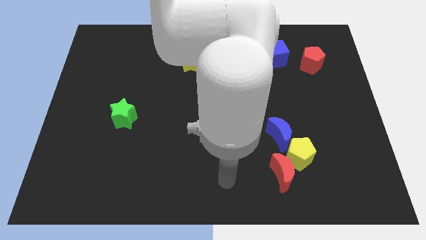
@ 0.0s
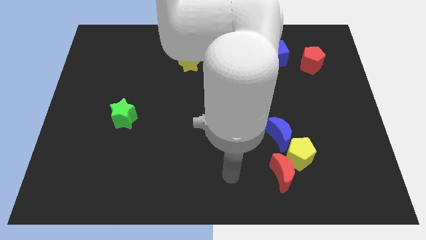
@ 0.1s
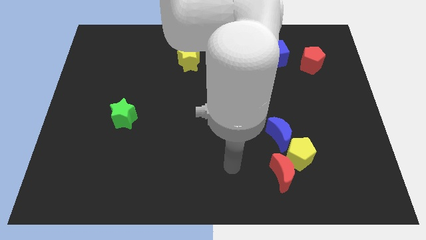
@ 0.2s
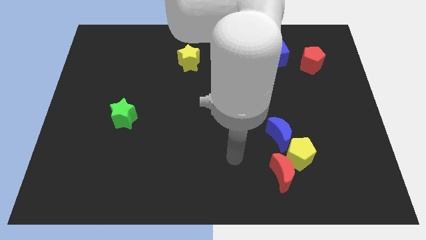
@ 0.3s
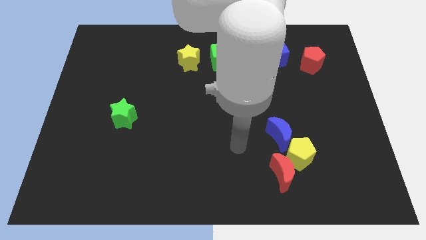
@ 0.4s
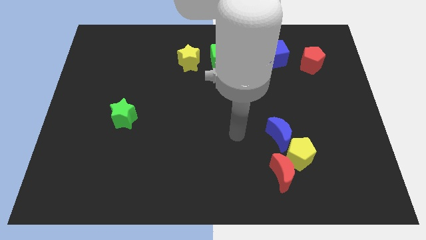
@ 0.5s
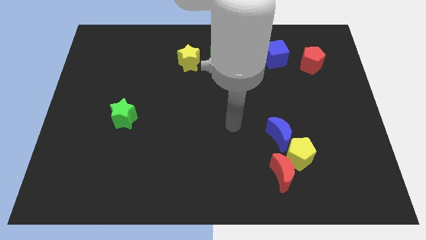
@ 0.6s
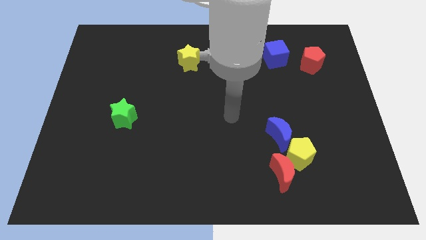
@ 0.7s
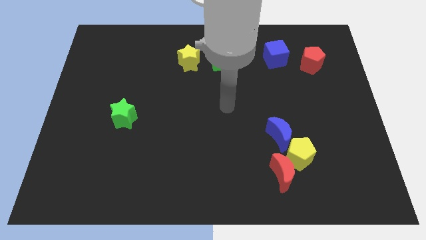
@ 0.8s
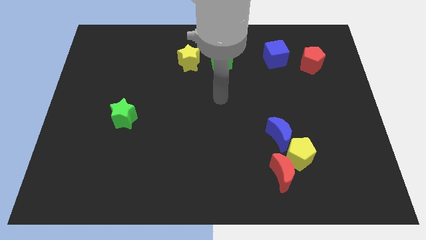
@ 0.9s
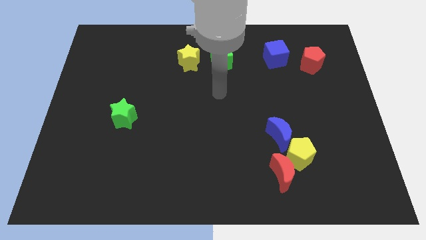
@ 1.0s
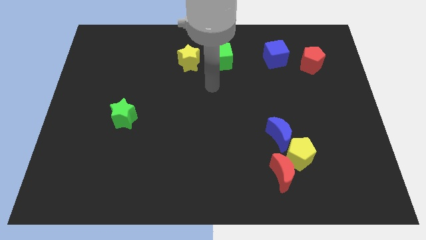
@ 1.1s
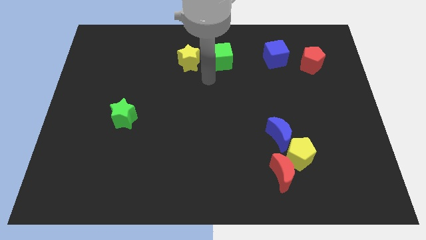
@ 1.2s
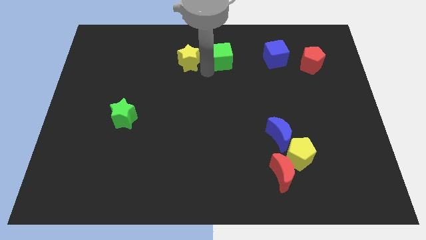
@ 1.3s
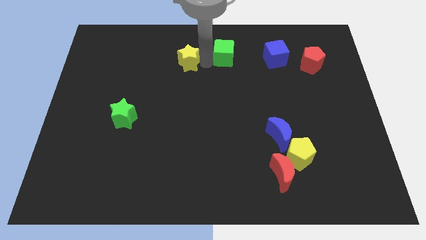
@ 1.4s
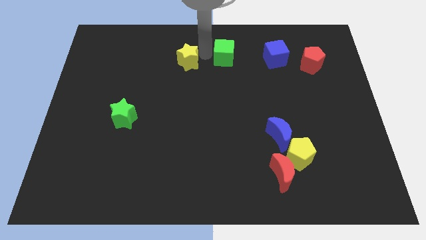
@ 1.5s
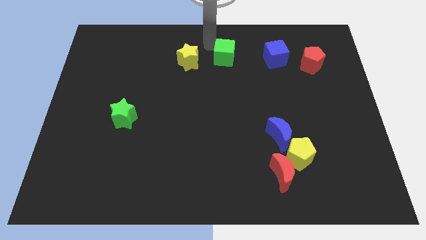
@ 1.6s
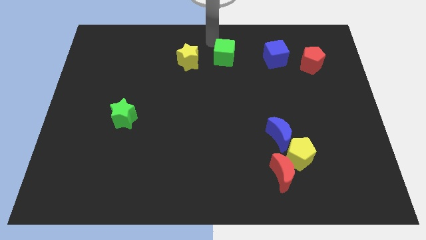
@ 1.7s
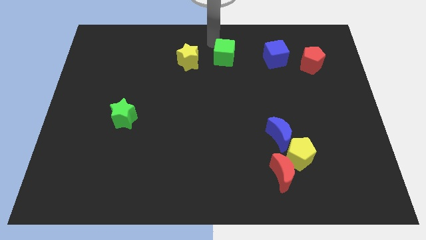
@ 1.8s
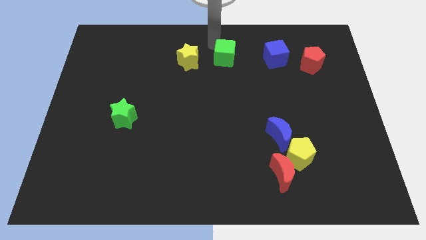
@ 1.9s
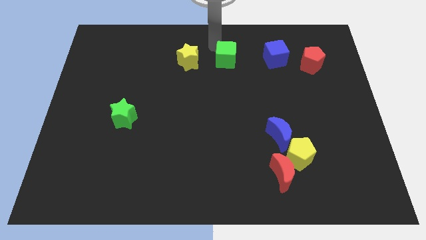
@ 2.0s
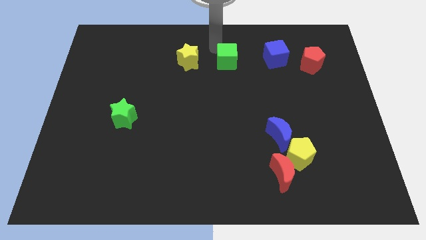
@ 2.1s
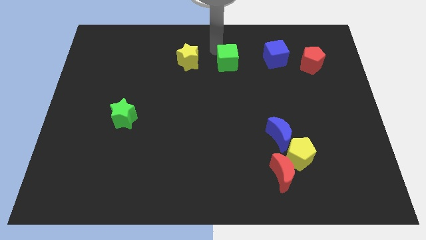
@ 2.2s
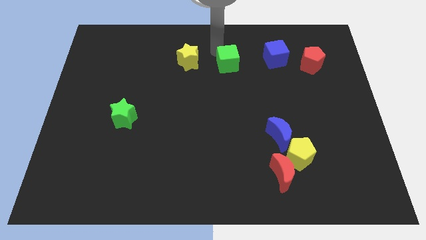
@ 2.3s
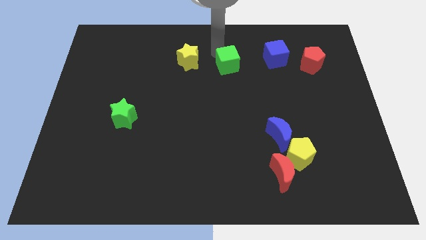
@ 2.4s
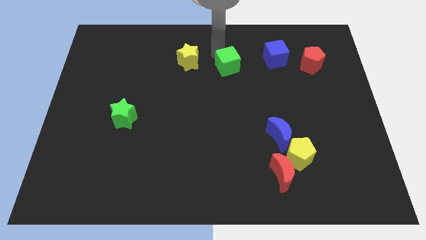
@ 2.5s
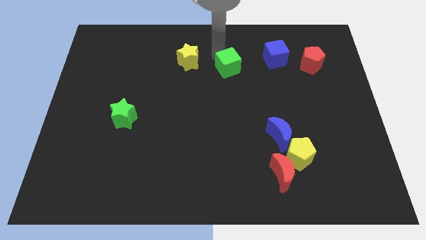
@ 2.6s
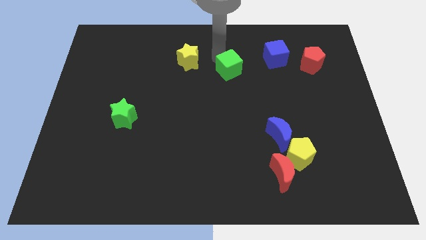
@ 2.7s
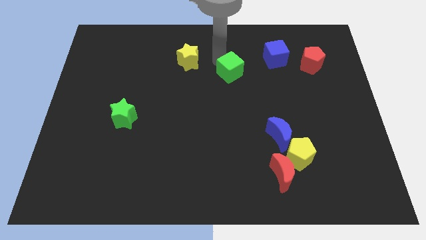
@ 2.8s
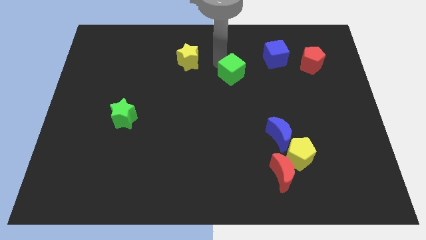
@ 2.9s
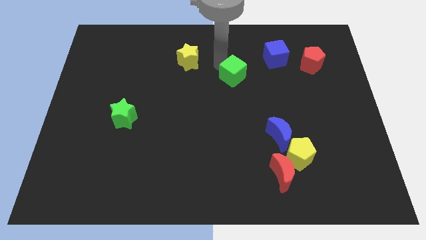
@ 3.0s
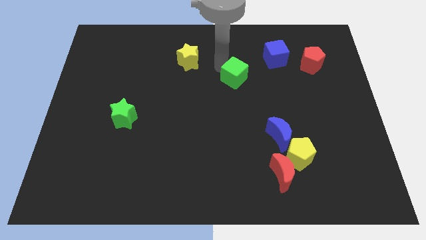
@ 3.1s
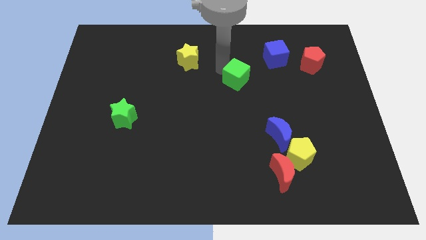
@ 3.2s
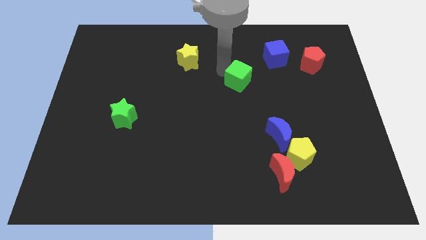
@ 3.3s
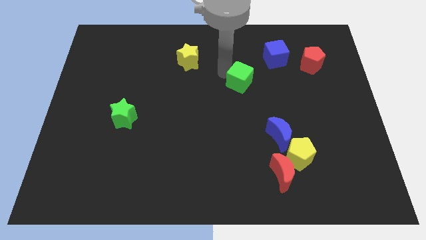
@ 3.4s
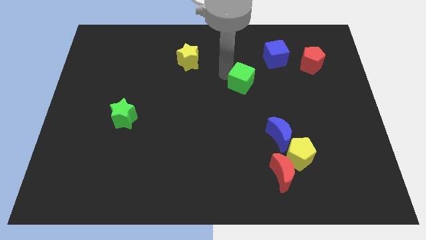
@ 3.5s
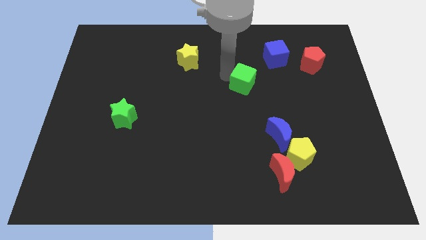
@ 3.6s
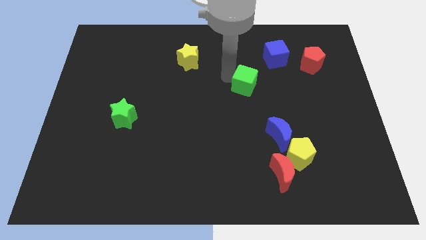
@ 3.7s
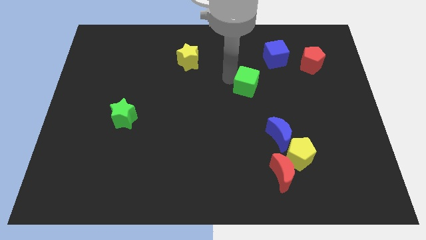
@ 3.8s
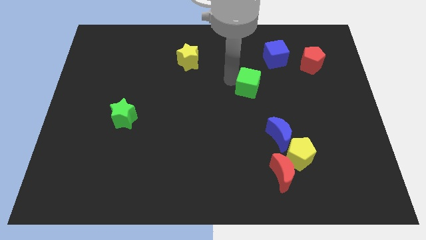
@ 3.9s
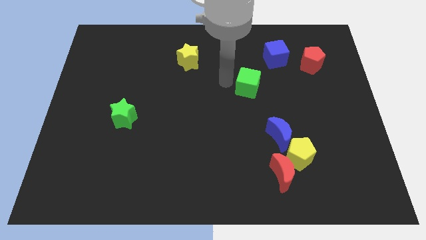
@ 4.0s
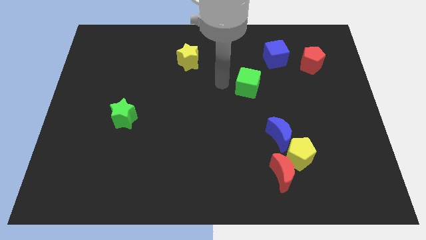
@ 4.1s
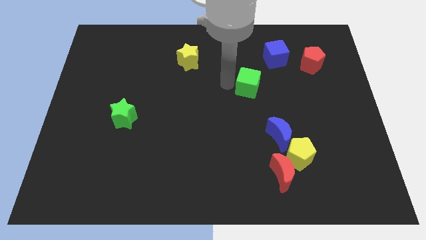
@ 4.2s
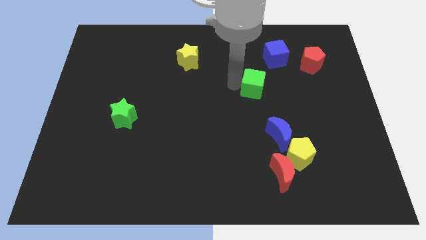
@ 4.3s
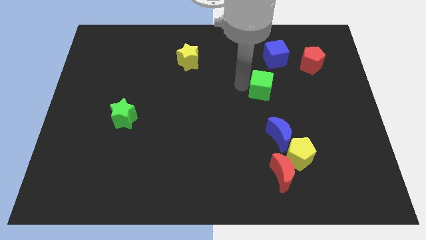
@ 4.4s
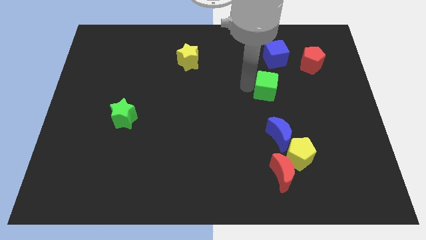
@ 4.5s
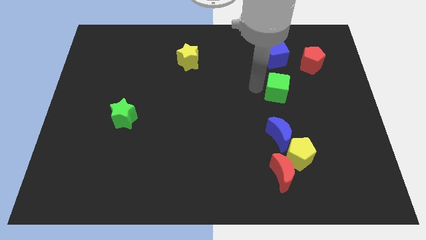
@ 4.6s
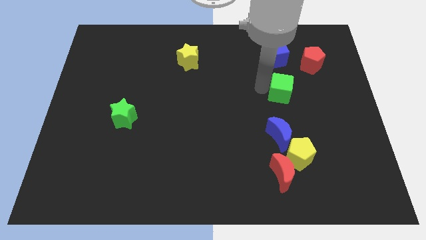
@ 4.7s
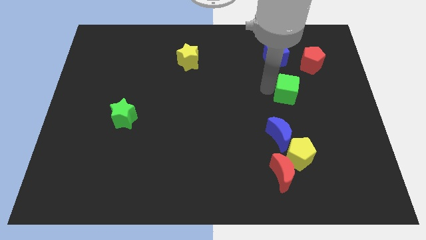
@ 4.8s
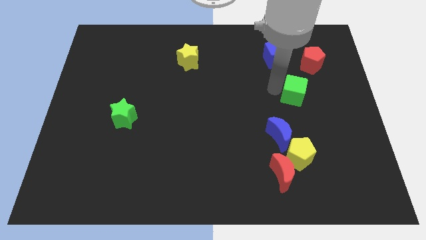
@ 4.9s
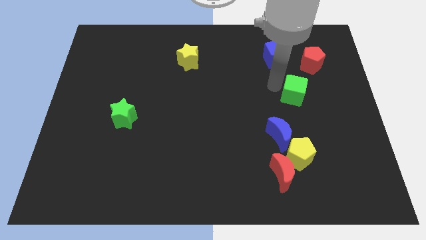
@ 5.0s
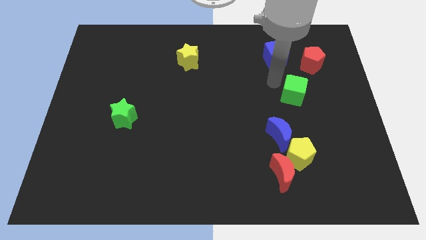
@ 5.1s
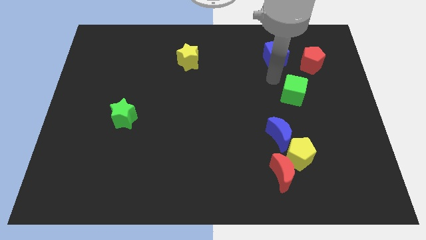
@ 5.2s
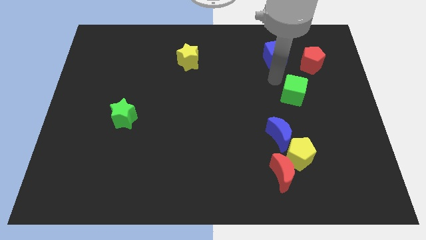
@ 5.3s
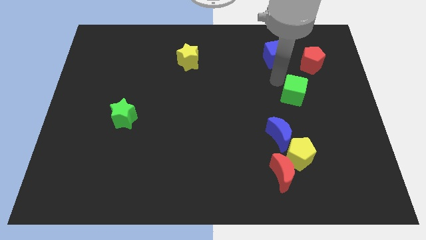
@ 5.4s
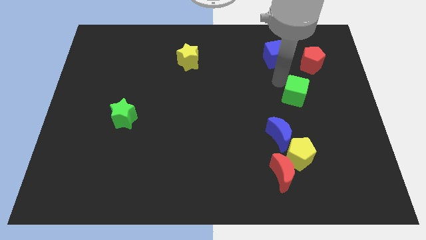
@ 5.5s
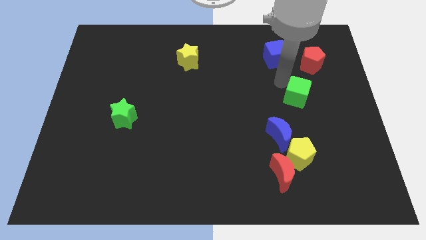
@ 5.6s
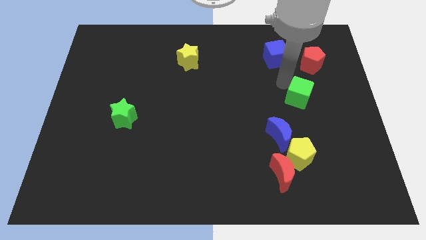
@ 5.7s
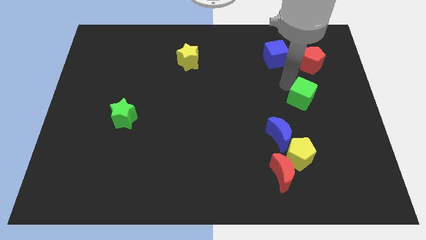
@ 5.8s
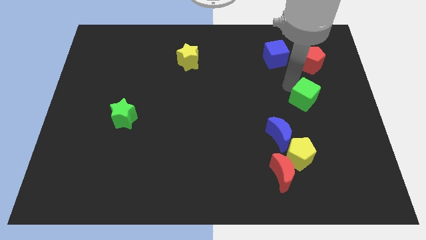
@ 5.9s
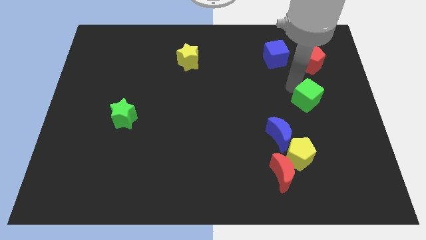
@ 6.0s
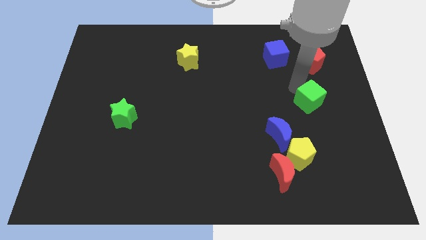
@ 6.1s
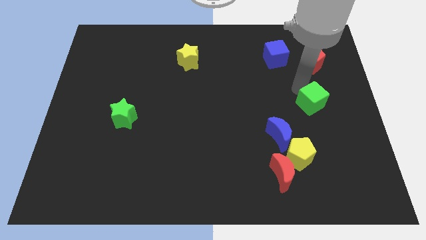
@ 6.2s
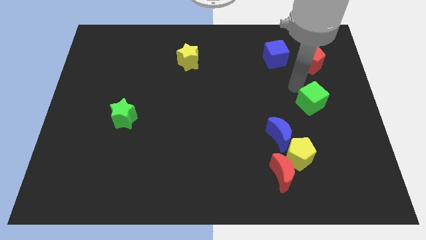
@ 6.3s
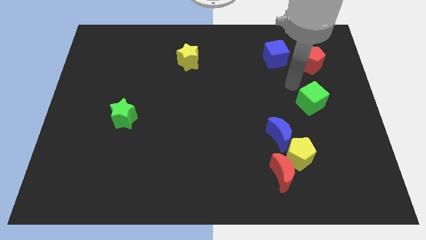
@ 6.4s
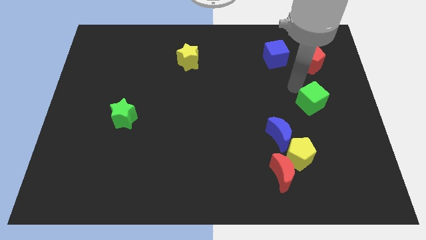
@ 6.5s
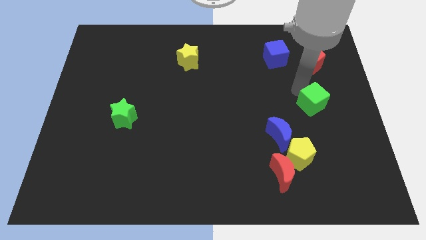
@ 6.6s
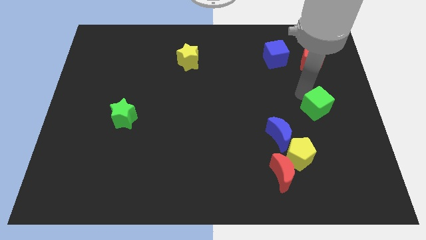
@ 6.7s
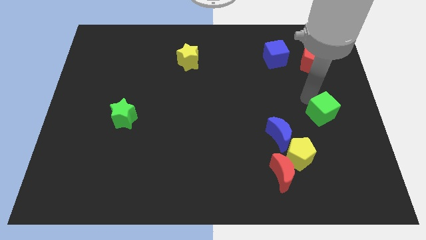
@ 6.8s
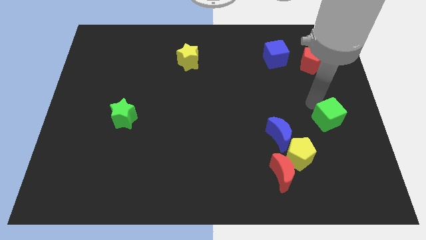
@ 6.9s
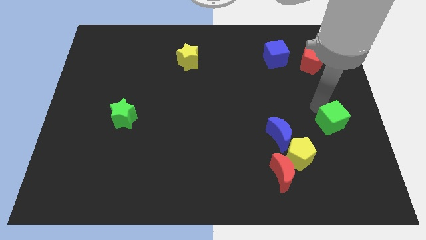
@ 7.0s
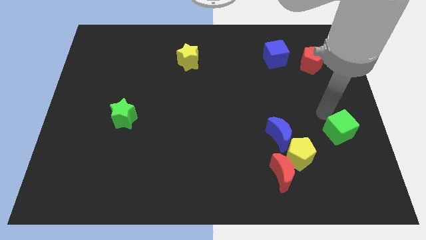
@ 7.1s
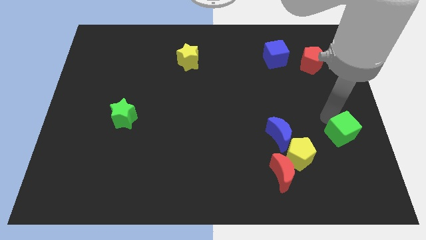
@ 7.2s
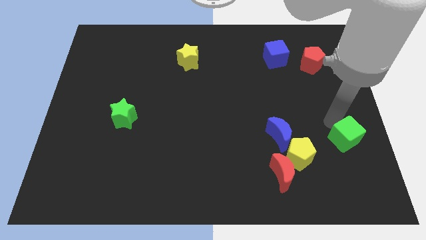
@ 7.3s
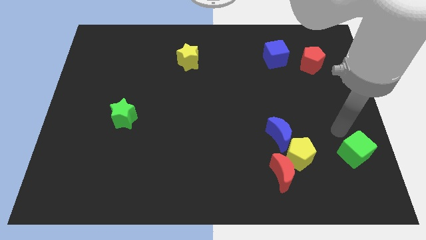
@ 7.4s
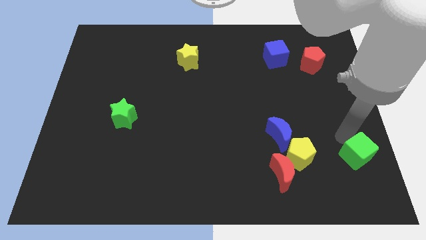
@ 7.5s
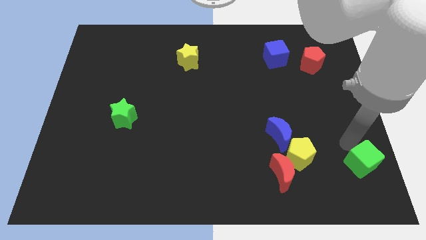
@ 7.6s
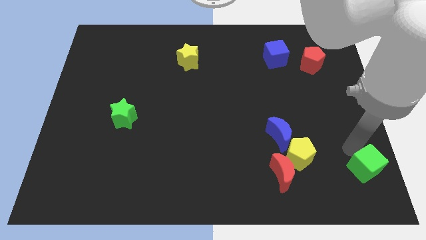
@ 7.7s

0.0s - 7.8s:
slide the green cube to the lower right corner
